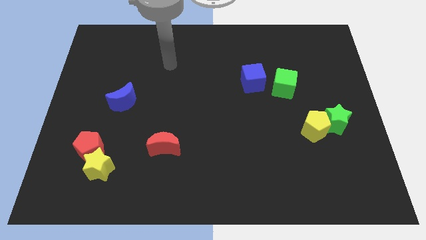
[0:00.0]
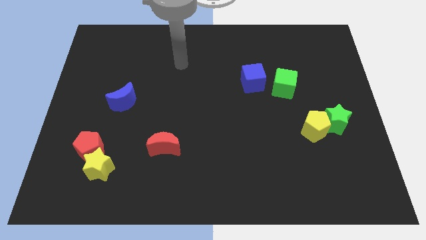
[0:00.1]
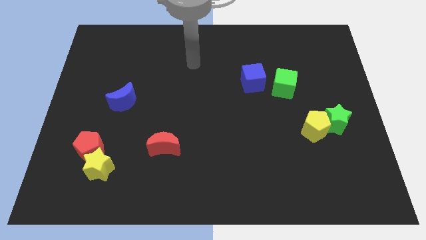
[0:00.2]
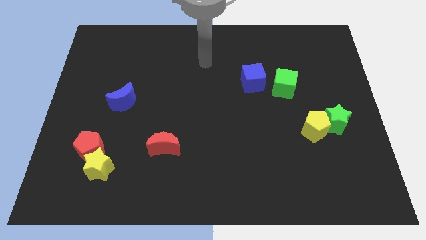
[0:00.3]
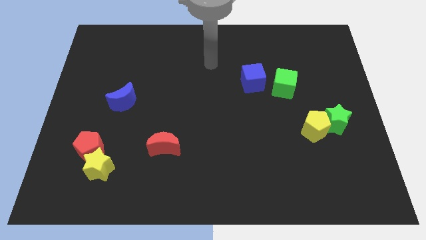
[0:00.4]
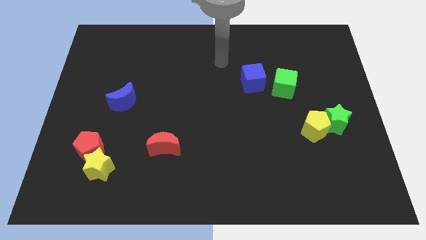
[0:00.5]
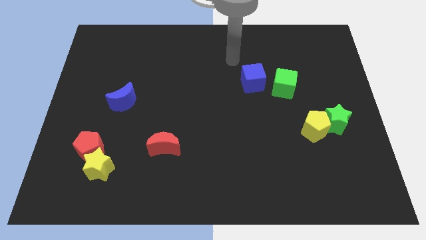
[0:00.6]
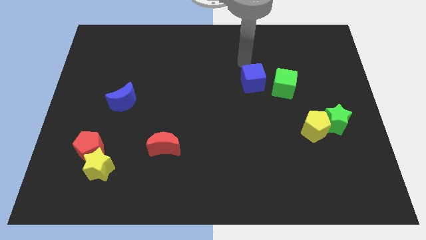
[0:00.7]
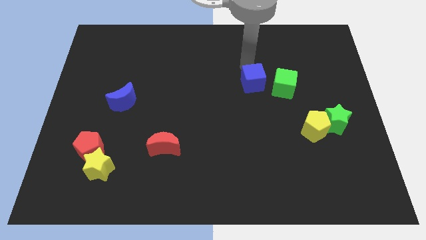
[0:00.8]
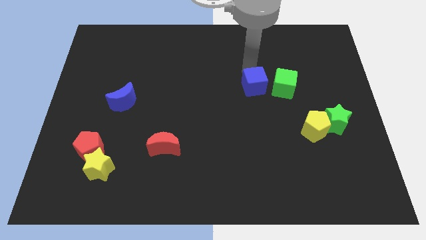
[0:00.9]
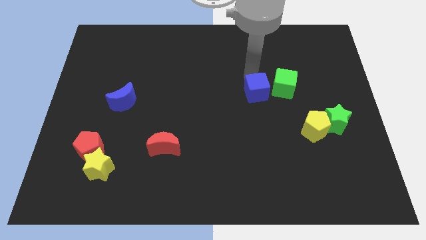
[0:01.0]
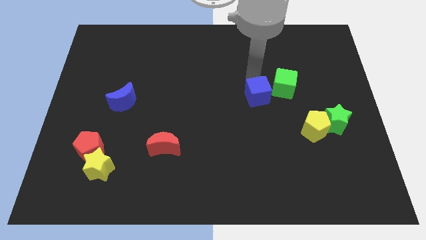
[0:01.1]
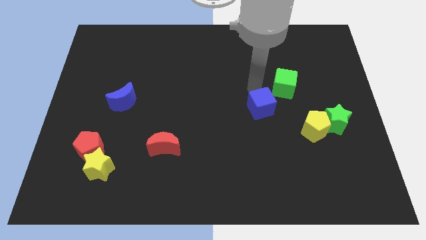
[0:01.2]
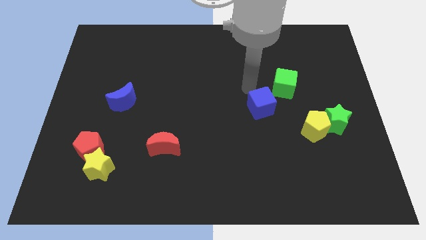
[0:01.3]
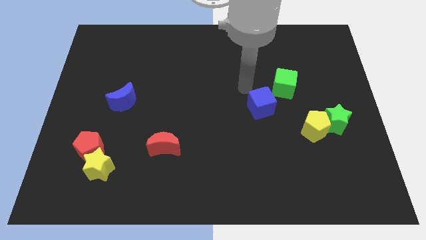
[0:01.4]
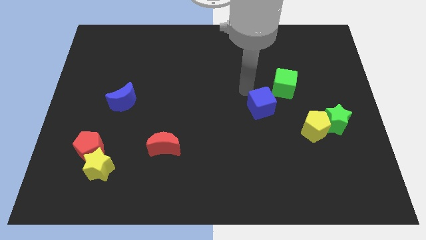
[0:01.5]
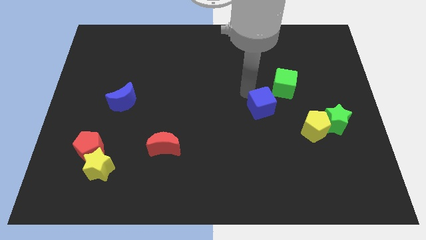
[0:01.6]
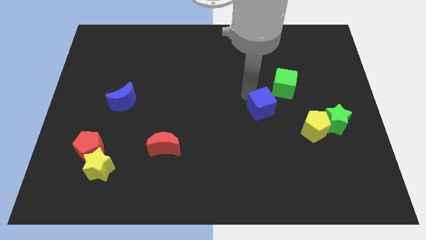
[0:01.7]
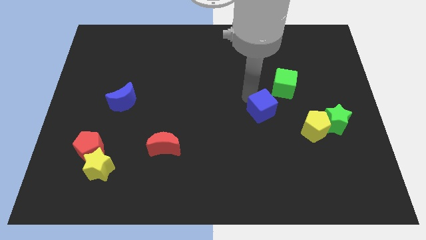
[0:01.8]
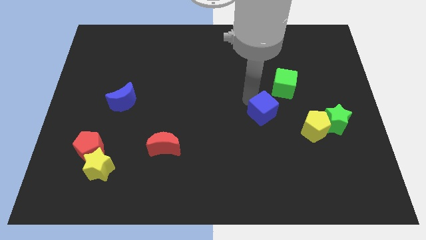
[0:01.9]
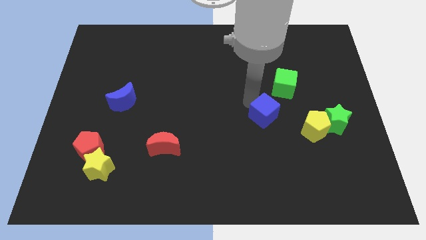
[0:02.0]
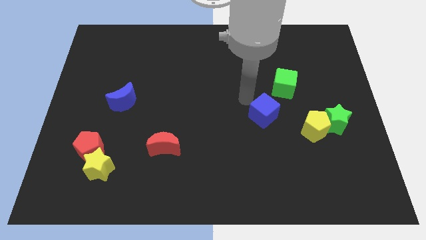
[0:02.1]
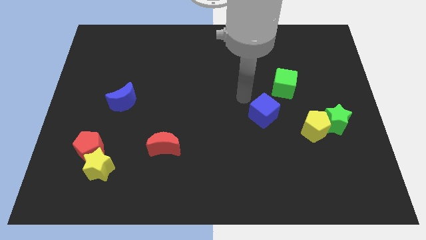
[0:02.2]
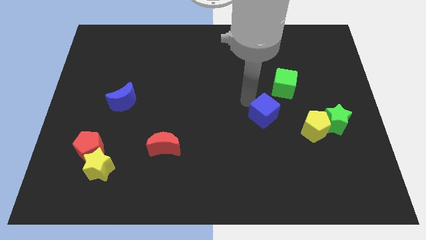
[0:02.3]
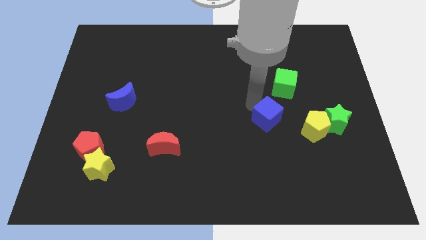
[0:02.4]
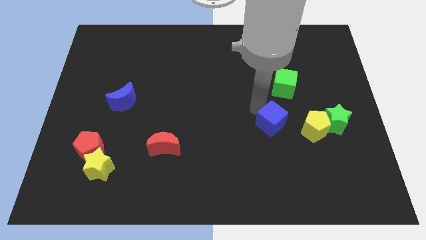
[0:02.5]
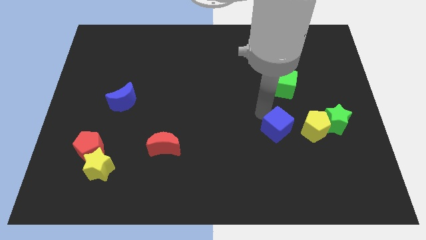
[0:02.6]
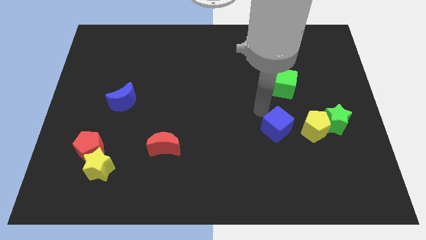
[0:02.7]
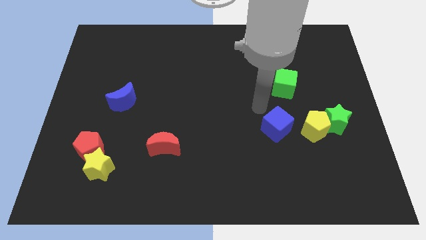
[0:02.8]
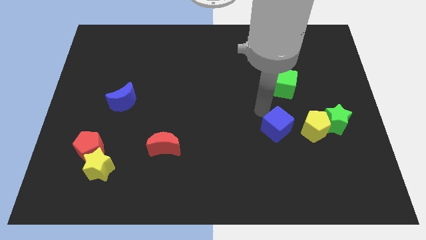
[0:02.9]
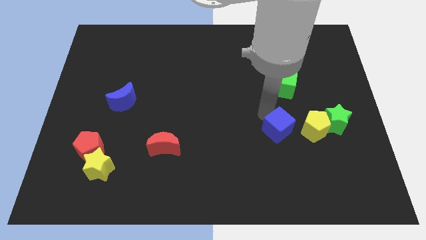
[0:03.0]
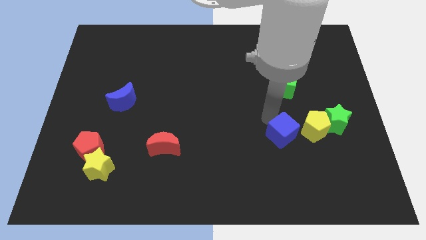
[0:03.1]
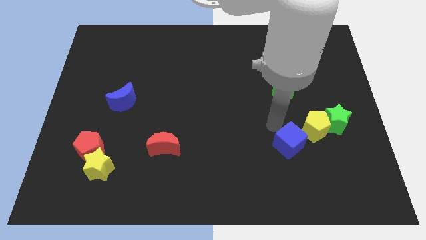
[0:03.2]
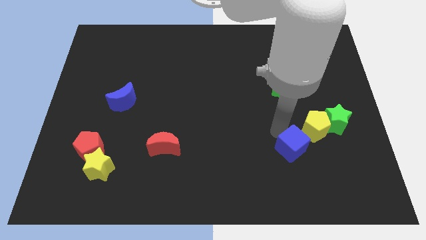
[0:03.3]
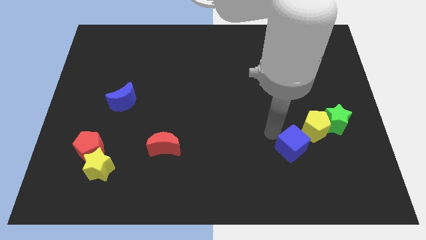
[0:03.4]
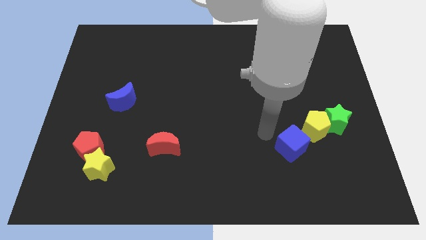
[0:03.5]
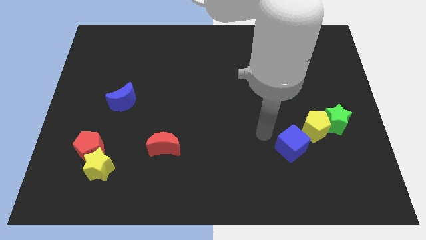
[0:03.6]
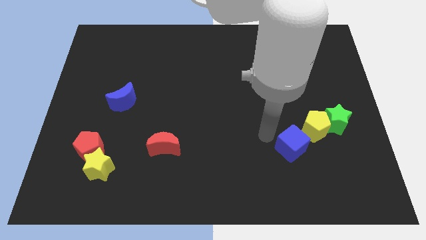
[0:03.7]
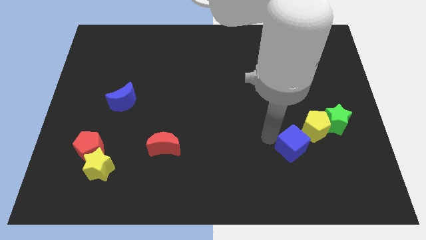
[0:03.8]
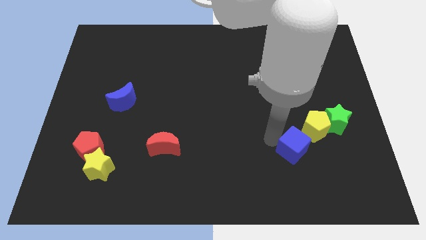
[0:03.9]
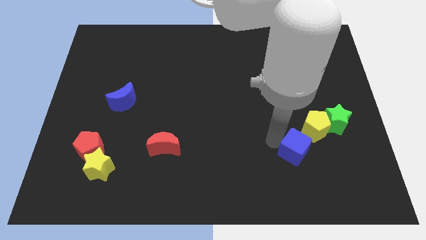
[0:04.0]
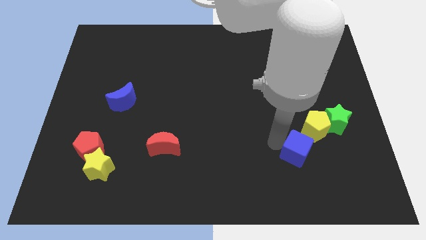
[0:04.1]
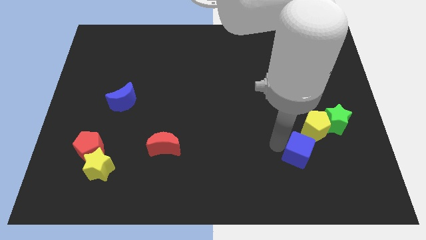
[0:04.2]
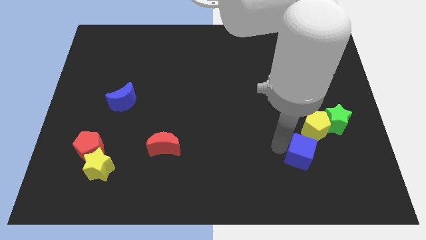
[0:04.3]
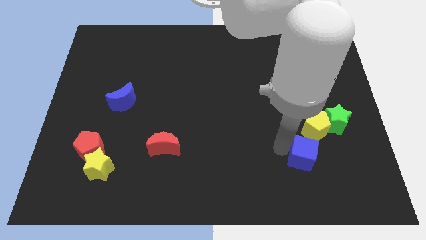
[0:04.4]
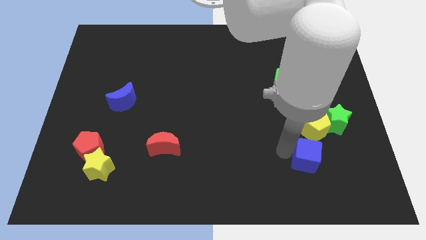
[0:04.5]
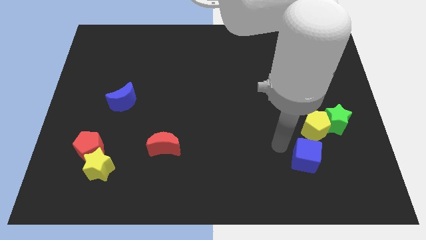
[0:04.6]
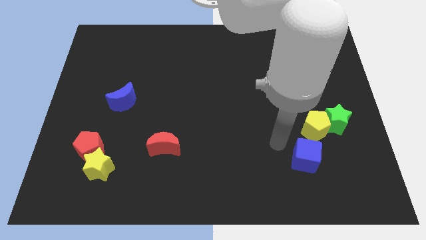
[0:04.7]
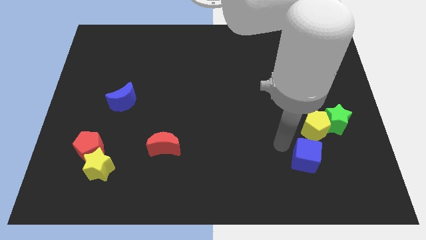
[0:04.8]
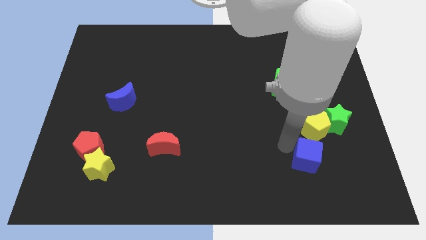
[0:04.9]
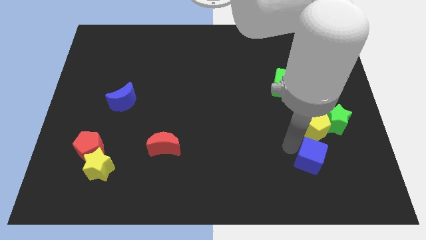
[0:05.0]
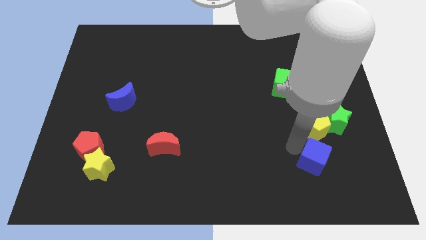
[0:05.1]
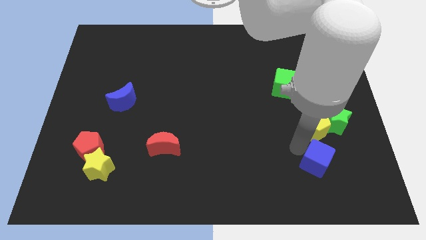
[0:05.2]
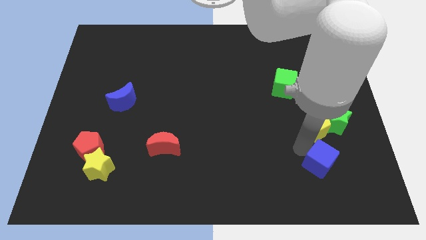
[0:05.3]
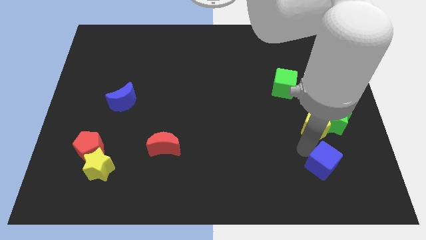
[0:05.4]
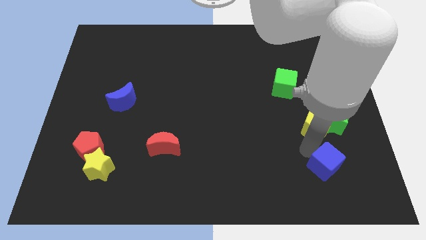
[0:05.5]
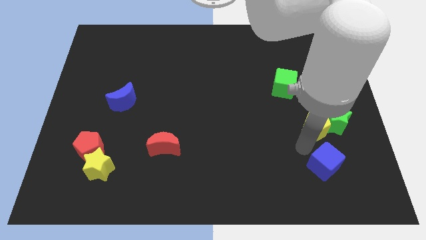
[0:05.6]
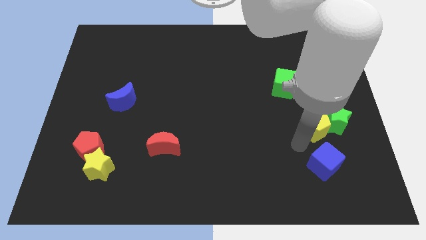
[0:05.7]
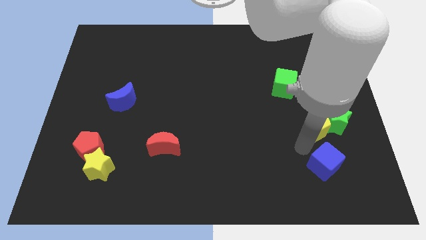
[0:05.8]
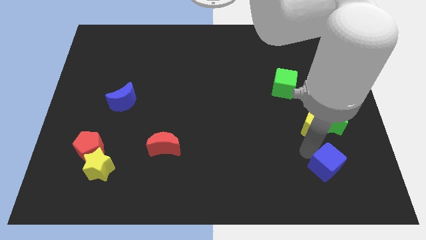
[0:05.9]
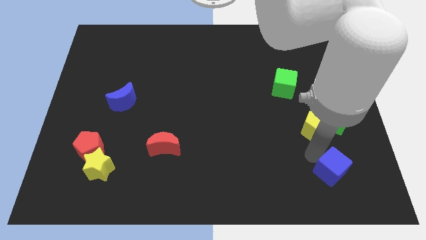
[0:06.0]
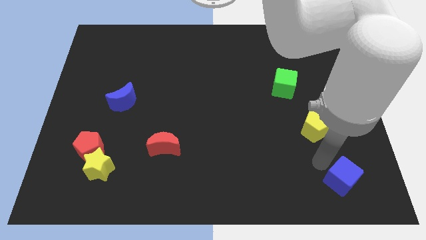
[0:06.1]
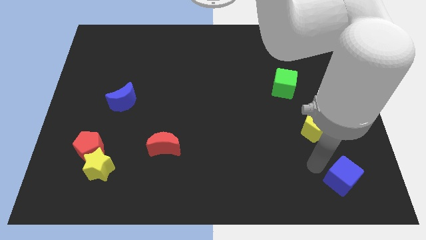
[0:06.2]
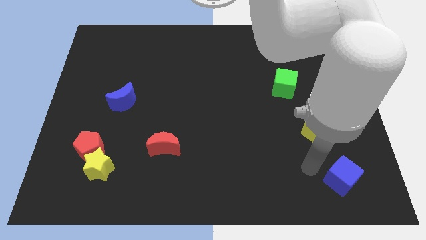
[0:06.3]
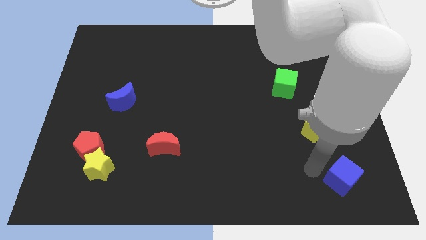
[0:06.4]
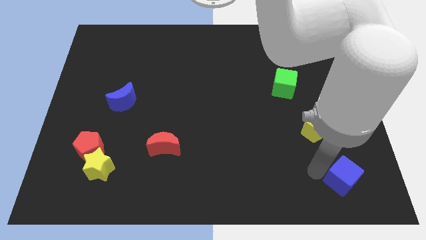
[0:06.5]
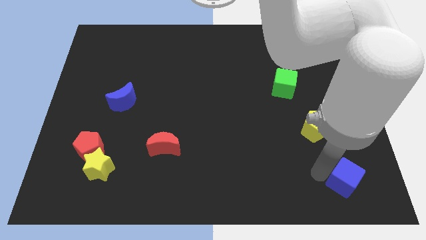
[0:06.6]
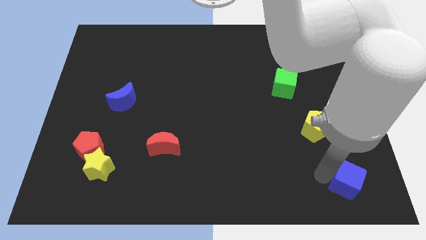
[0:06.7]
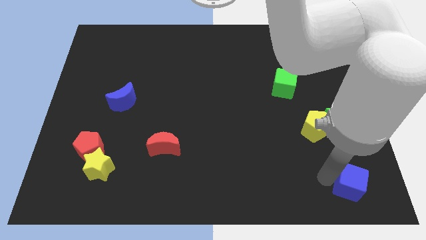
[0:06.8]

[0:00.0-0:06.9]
push the blue cube to the lower right corner
